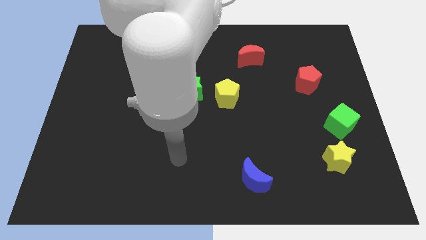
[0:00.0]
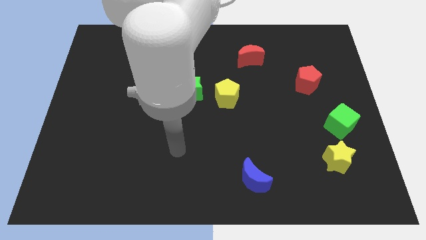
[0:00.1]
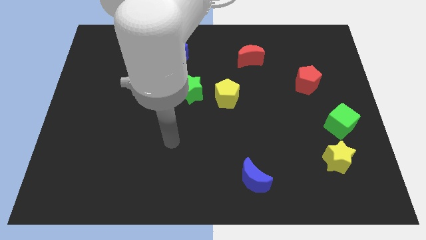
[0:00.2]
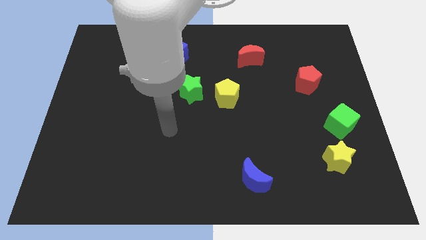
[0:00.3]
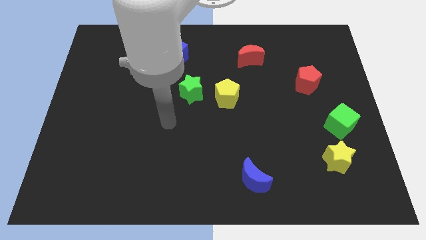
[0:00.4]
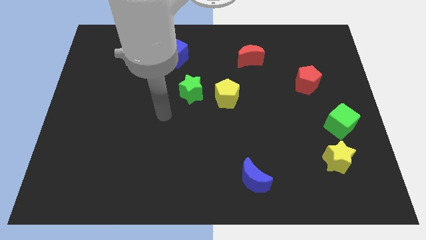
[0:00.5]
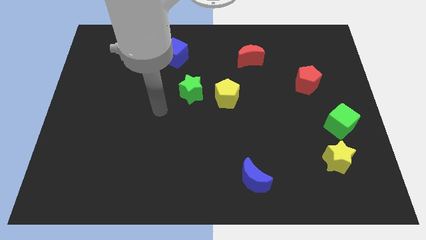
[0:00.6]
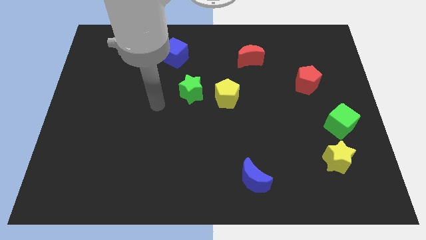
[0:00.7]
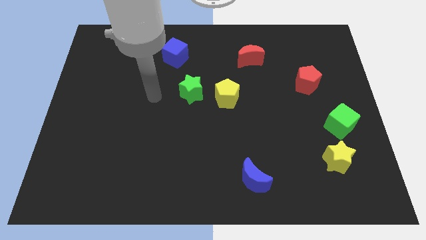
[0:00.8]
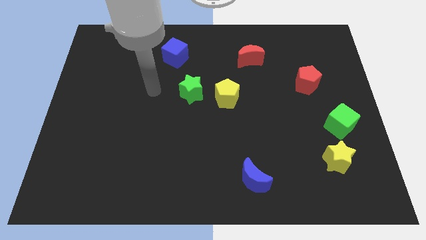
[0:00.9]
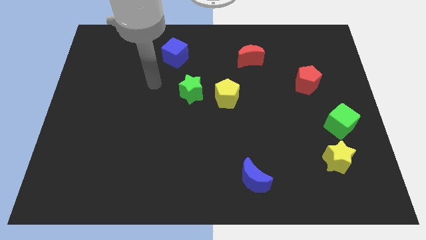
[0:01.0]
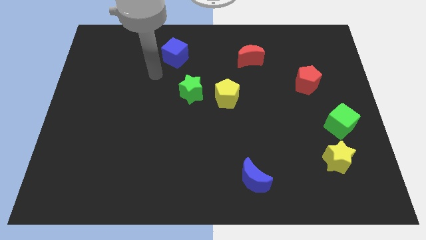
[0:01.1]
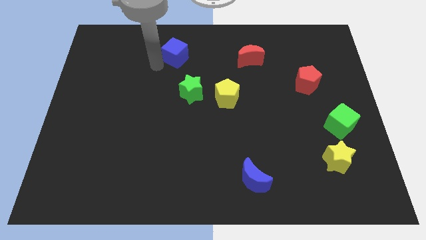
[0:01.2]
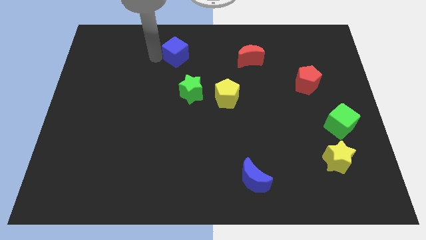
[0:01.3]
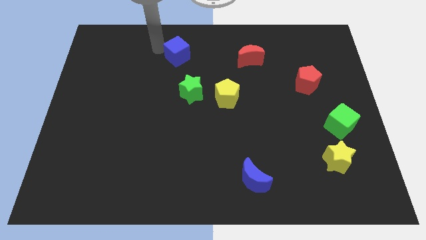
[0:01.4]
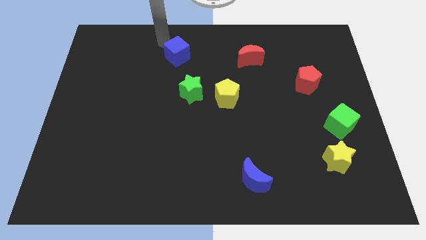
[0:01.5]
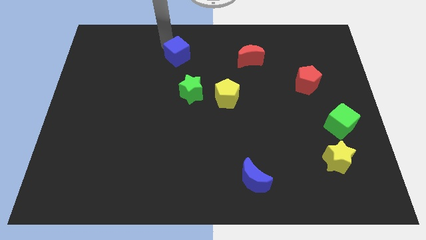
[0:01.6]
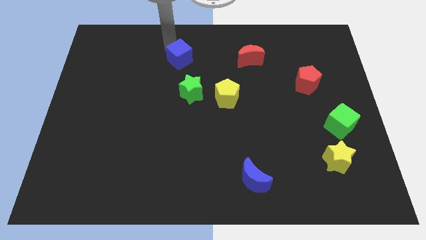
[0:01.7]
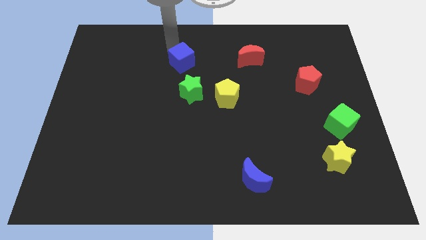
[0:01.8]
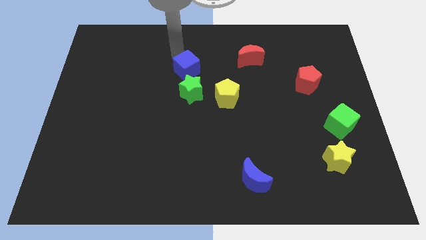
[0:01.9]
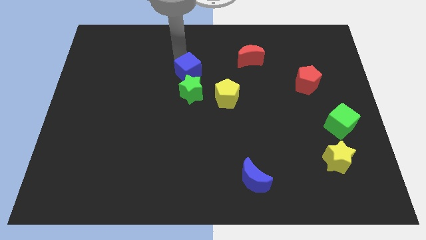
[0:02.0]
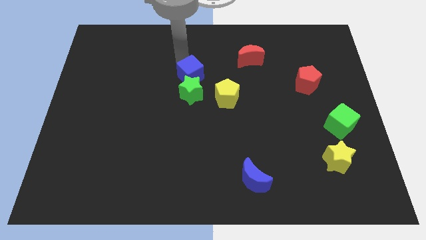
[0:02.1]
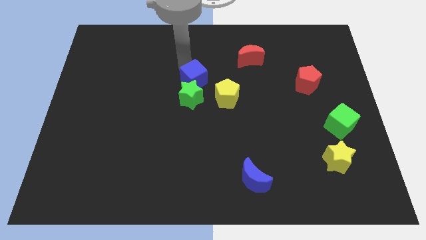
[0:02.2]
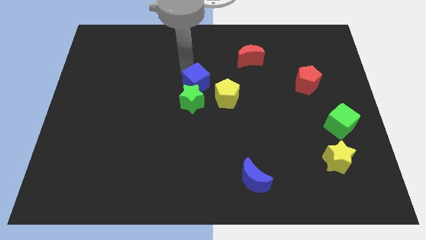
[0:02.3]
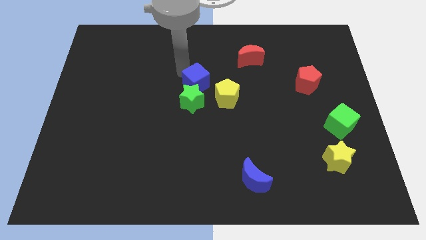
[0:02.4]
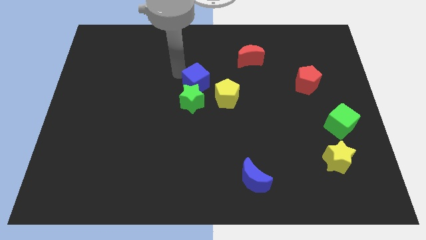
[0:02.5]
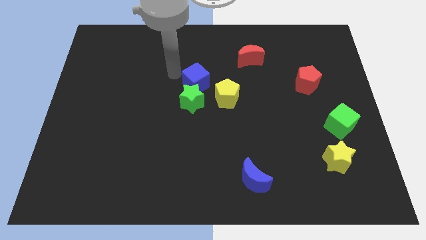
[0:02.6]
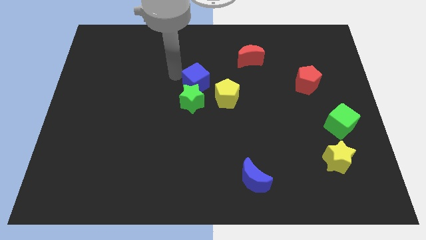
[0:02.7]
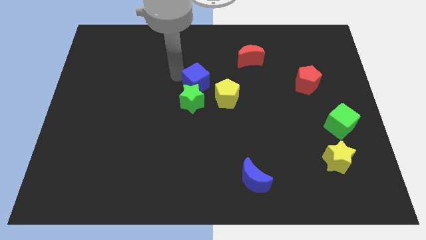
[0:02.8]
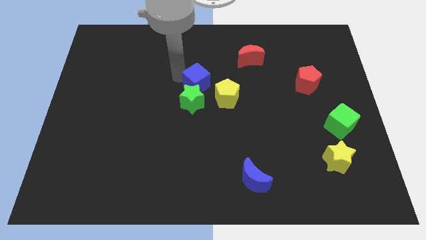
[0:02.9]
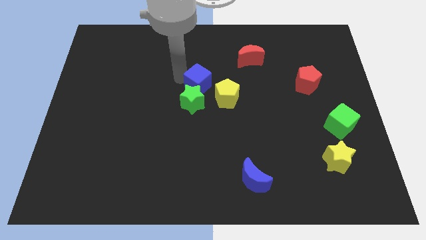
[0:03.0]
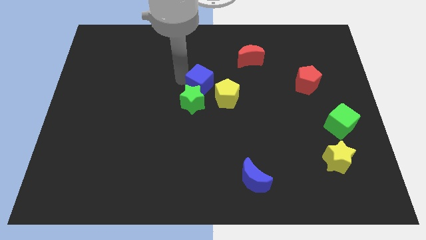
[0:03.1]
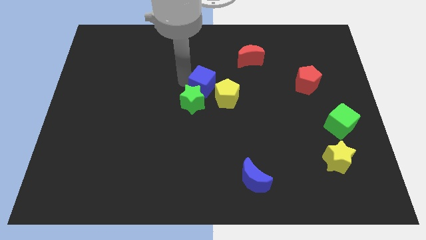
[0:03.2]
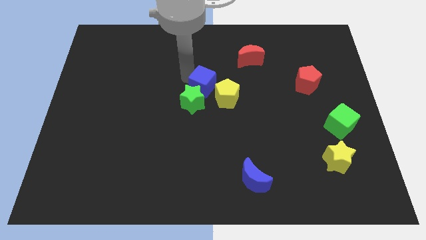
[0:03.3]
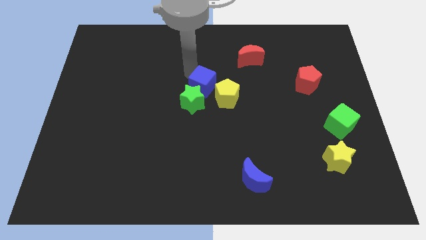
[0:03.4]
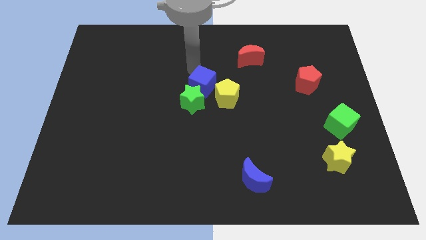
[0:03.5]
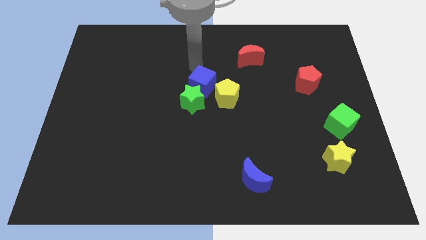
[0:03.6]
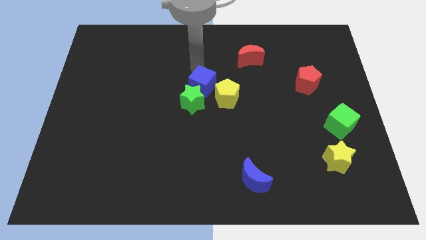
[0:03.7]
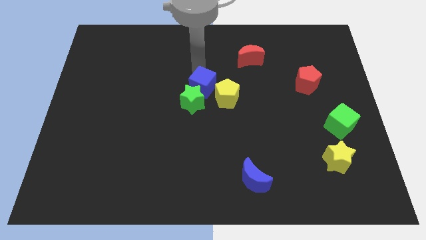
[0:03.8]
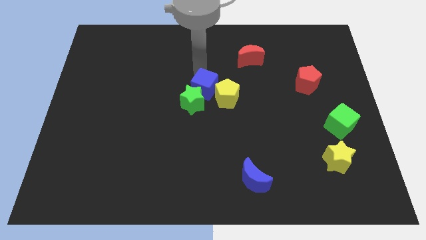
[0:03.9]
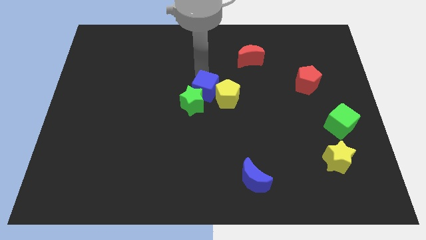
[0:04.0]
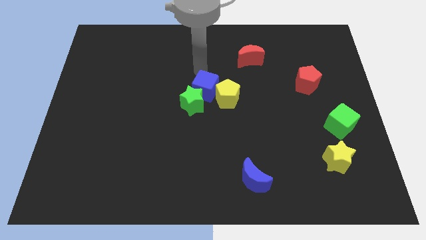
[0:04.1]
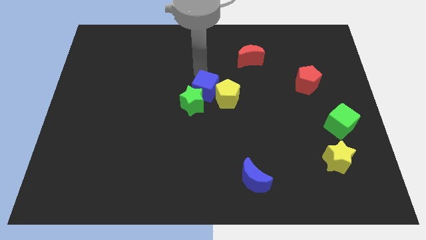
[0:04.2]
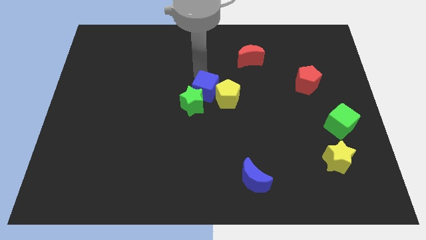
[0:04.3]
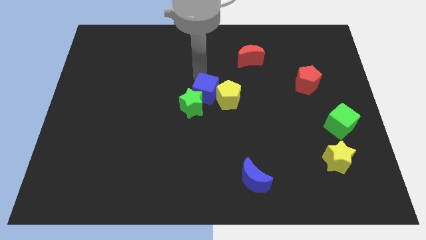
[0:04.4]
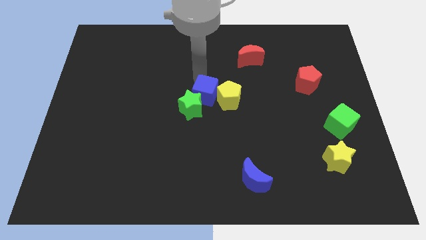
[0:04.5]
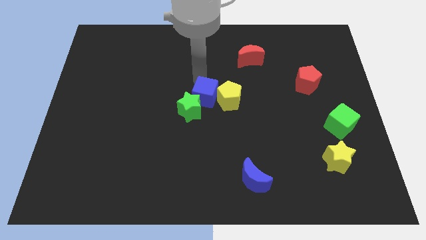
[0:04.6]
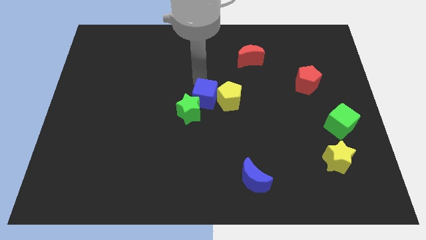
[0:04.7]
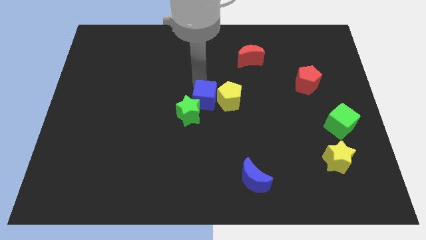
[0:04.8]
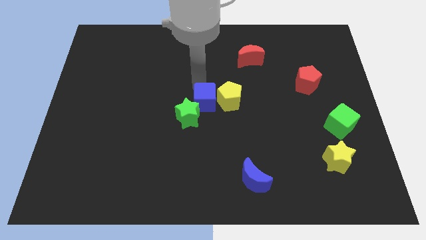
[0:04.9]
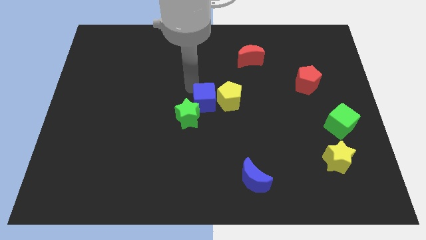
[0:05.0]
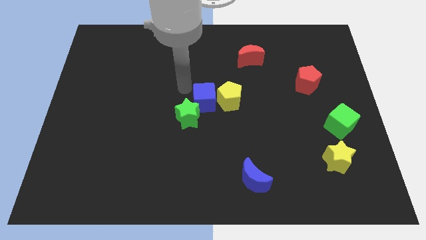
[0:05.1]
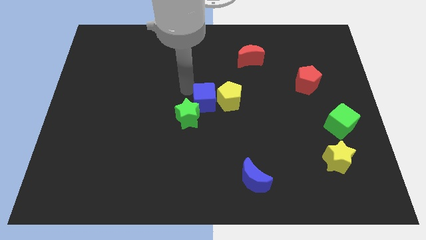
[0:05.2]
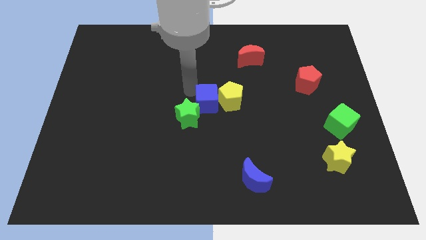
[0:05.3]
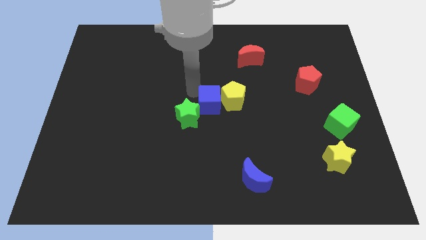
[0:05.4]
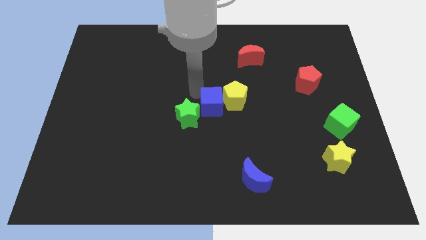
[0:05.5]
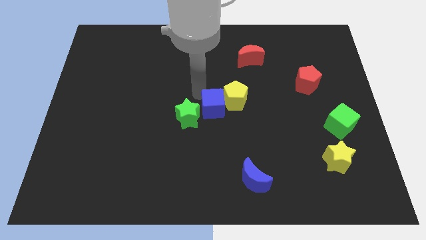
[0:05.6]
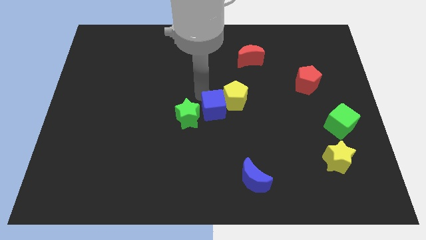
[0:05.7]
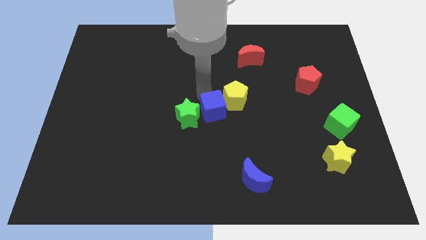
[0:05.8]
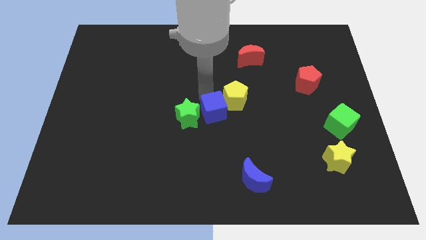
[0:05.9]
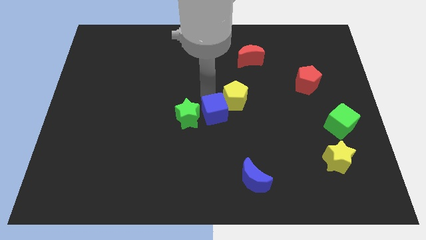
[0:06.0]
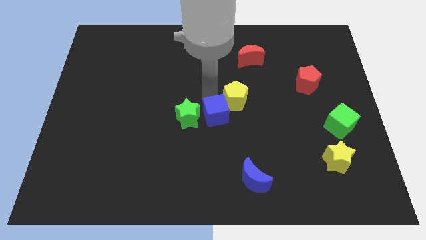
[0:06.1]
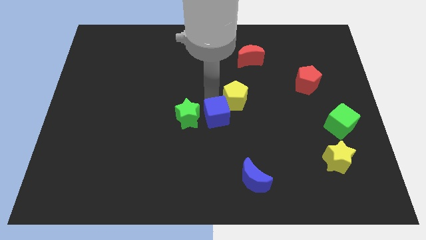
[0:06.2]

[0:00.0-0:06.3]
slide the blue cube downwards and to the right diagonally

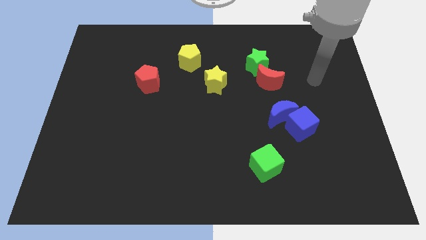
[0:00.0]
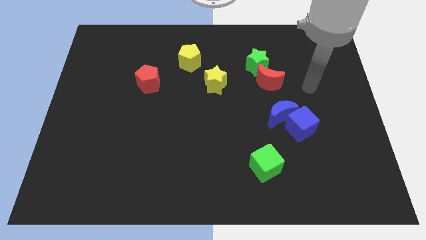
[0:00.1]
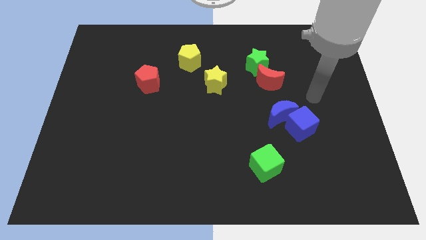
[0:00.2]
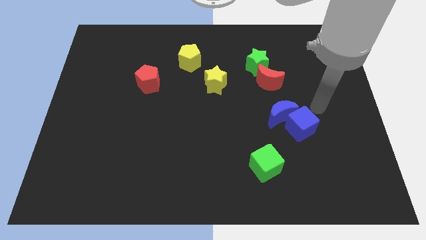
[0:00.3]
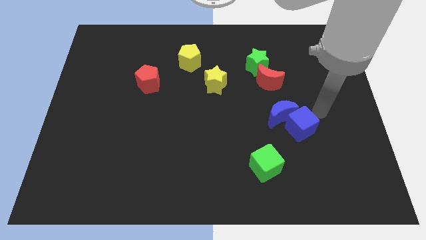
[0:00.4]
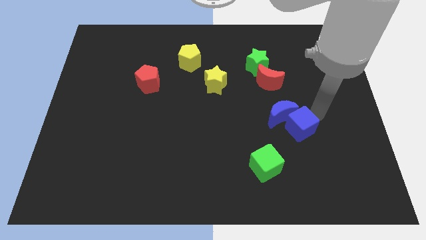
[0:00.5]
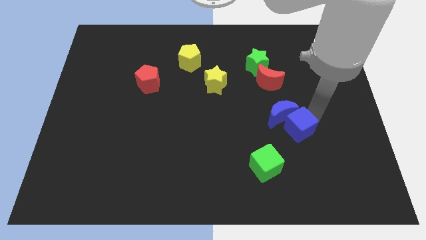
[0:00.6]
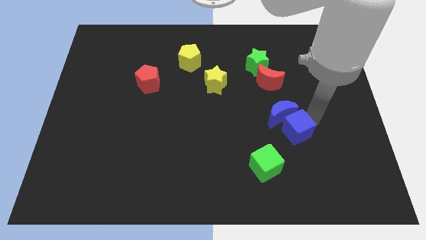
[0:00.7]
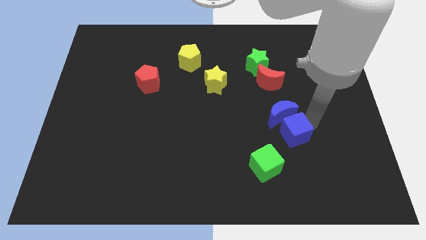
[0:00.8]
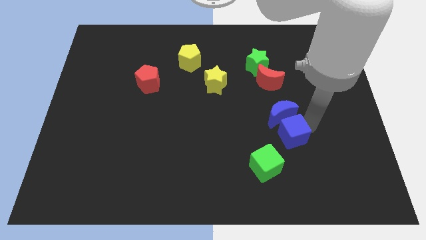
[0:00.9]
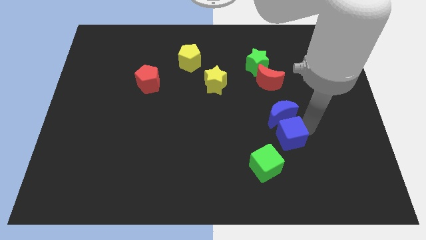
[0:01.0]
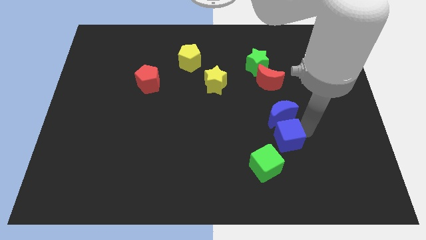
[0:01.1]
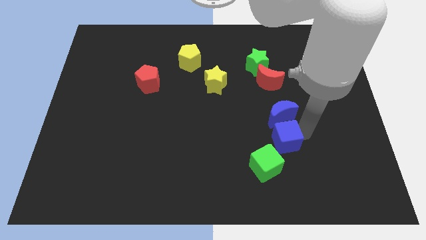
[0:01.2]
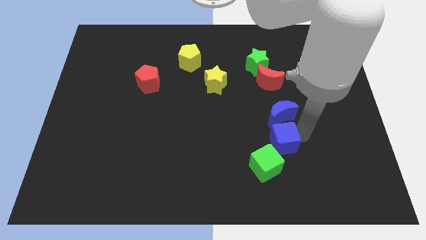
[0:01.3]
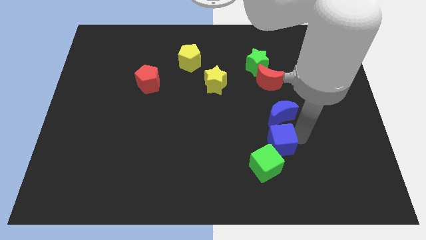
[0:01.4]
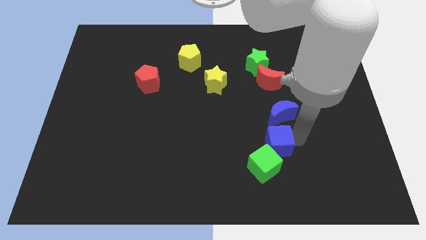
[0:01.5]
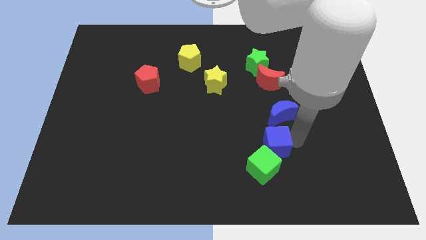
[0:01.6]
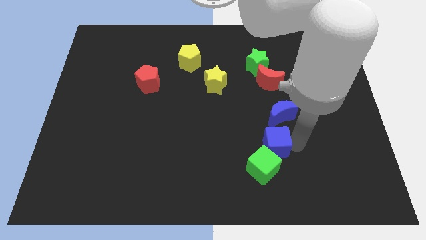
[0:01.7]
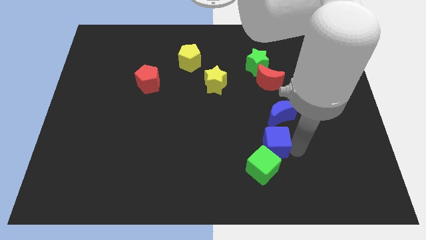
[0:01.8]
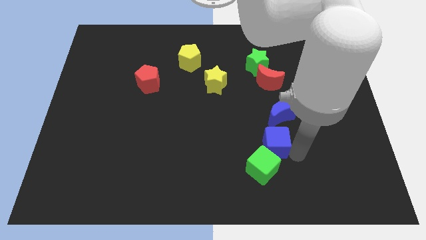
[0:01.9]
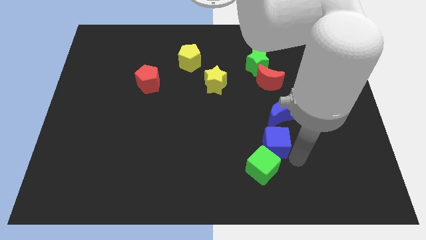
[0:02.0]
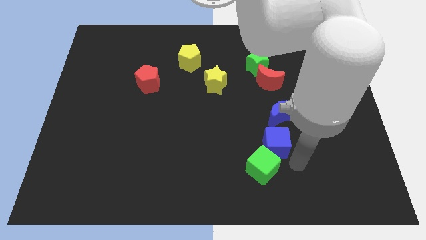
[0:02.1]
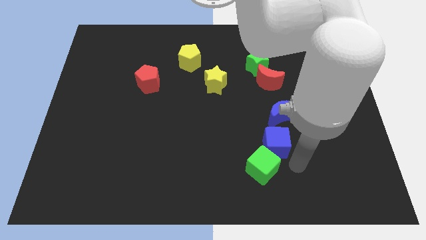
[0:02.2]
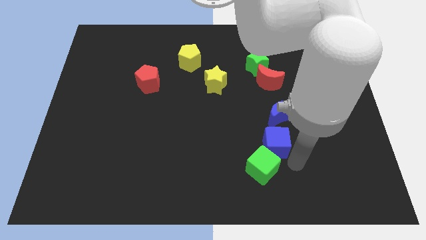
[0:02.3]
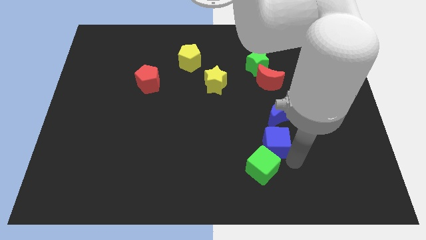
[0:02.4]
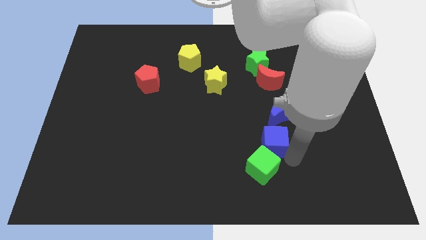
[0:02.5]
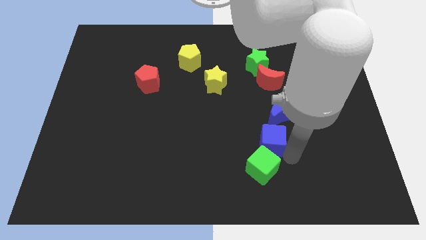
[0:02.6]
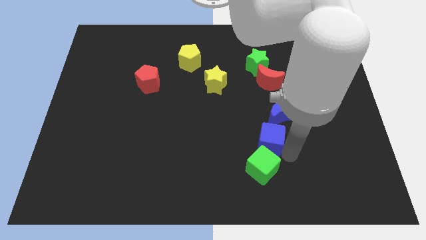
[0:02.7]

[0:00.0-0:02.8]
move the blue cube to the left slightly
